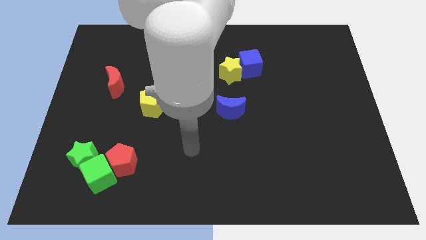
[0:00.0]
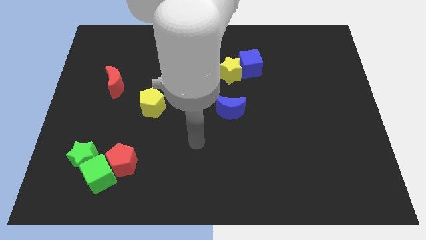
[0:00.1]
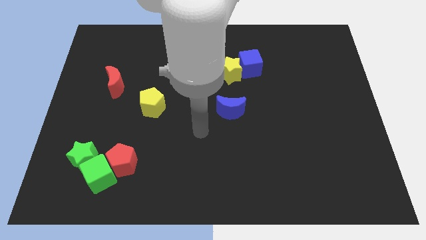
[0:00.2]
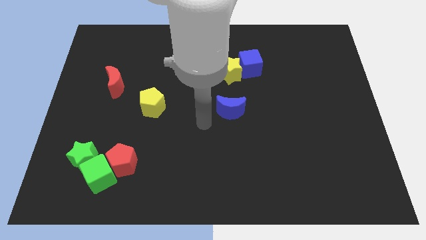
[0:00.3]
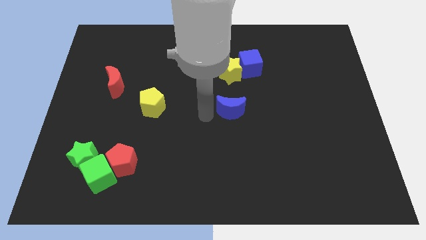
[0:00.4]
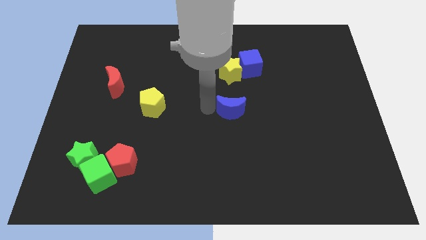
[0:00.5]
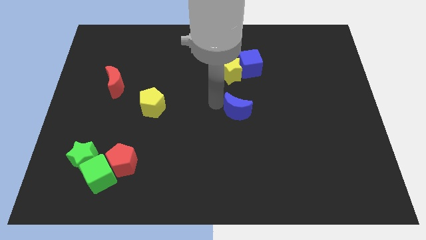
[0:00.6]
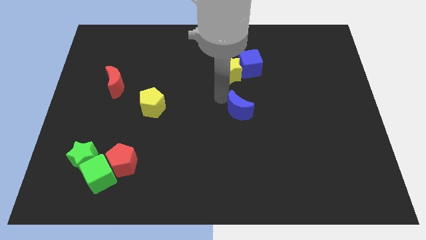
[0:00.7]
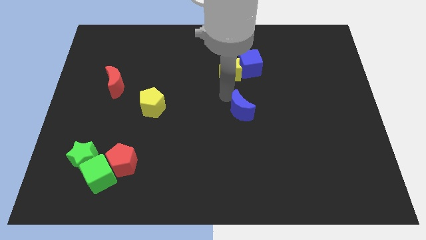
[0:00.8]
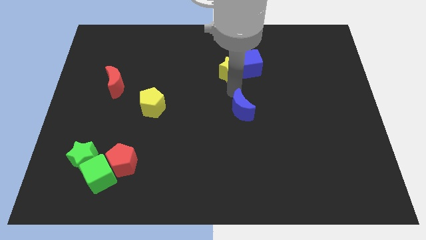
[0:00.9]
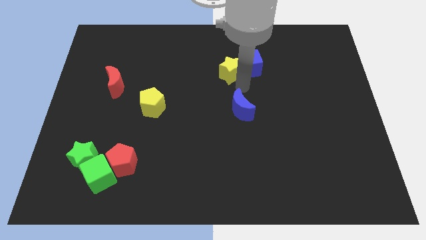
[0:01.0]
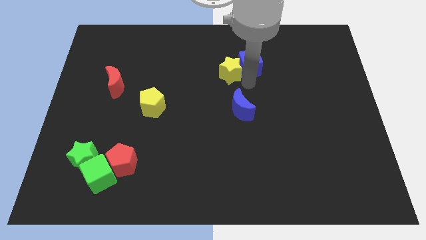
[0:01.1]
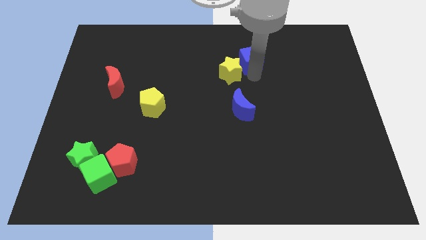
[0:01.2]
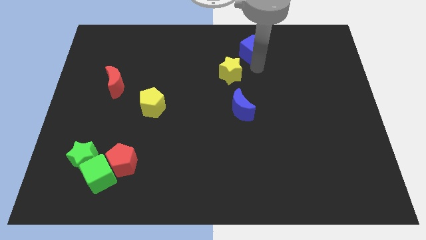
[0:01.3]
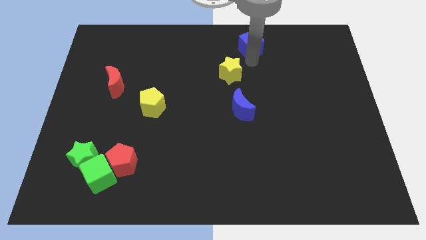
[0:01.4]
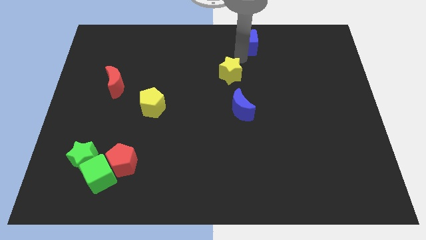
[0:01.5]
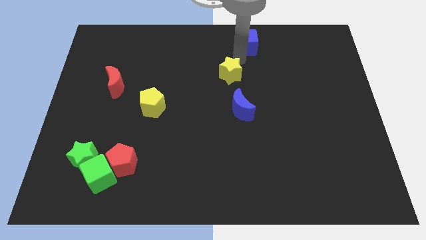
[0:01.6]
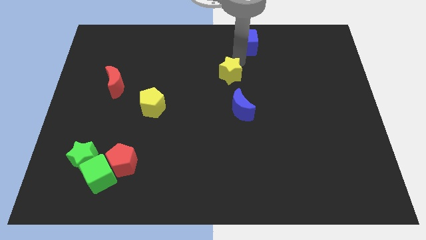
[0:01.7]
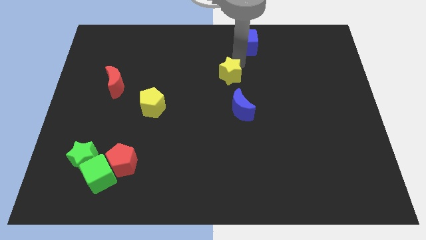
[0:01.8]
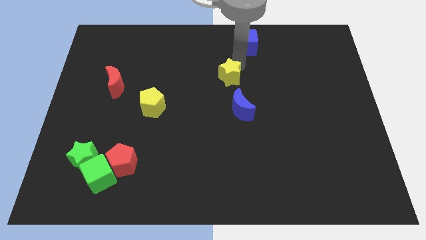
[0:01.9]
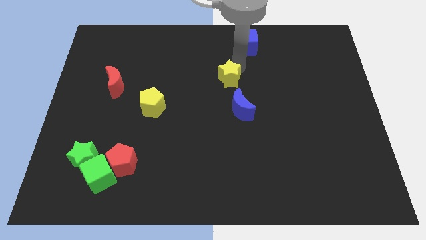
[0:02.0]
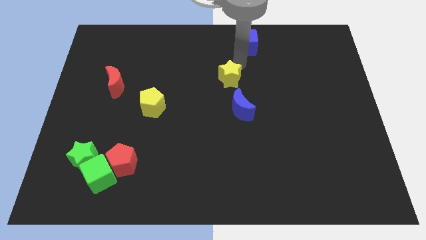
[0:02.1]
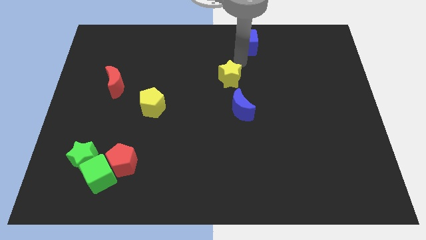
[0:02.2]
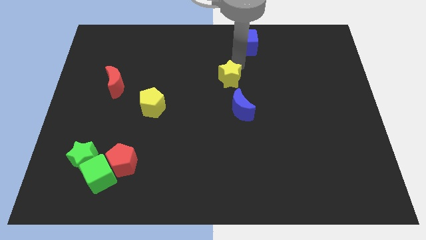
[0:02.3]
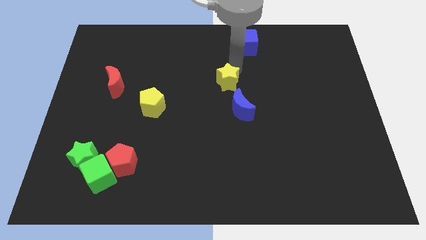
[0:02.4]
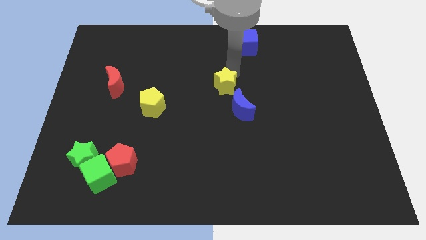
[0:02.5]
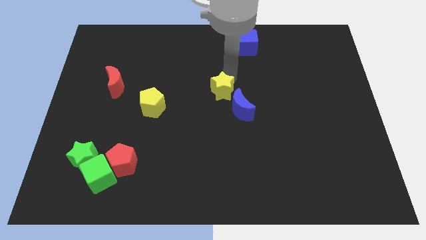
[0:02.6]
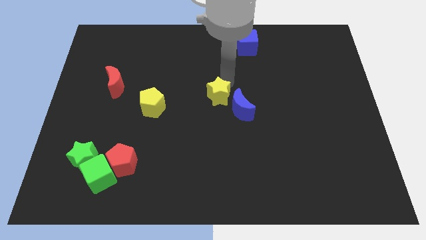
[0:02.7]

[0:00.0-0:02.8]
move the yellow star downwards a little

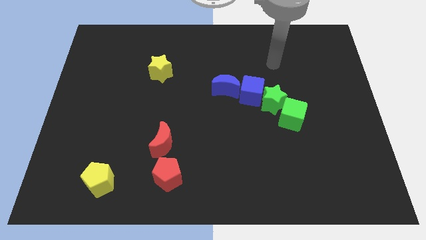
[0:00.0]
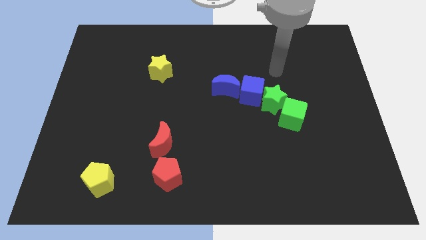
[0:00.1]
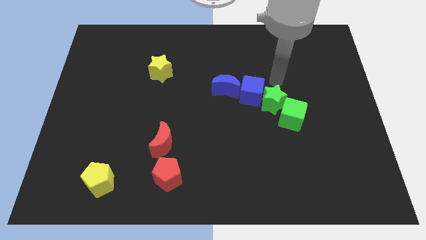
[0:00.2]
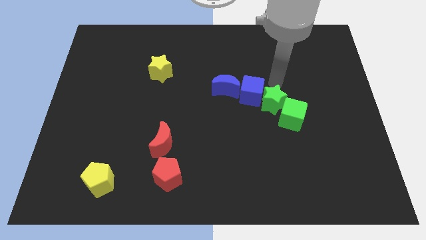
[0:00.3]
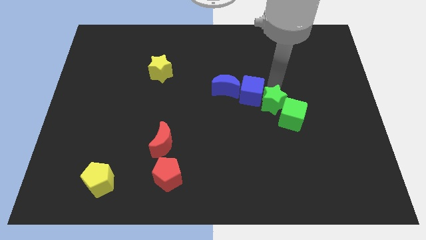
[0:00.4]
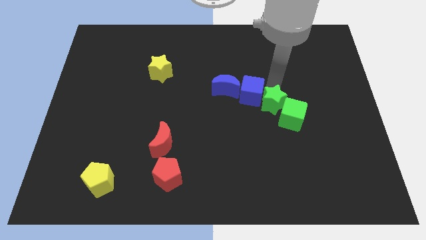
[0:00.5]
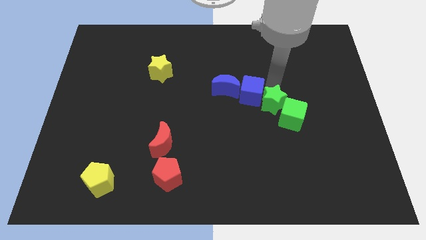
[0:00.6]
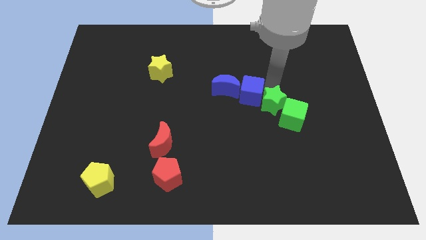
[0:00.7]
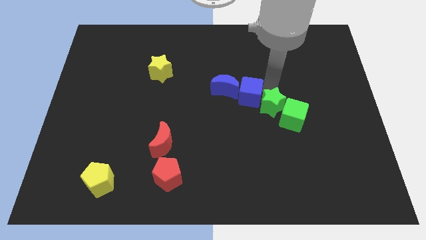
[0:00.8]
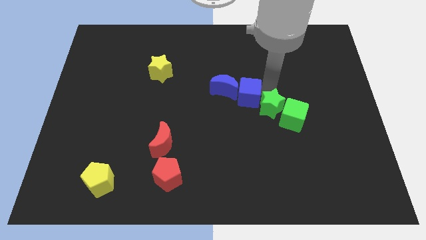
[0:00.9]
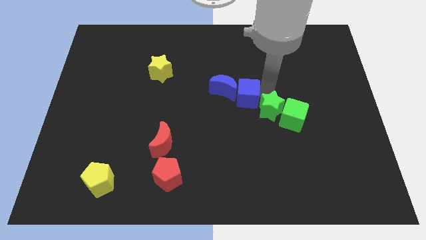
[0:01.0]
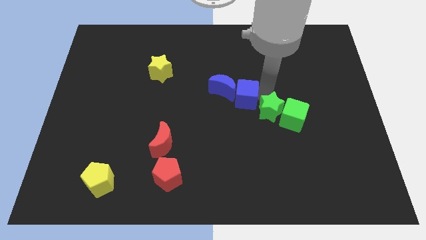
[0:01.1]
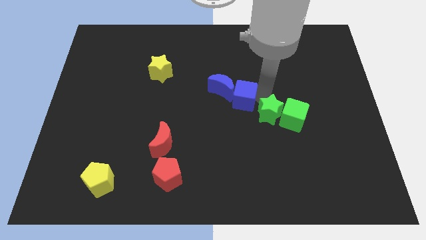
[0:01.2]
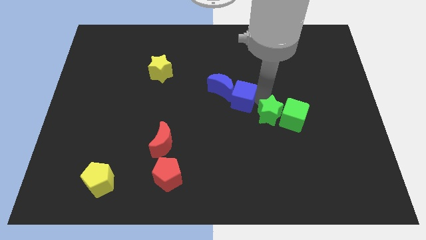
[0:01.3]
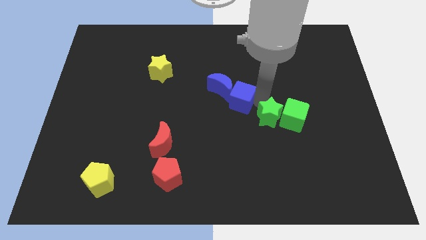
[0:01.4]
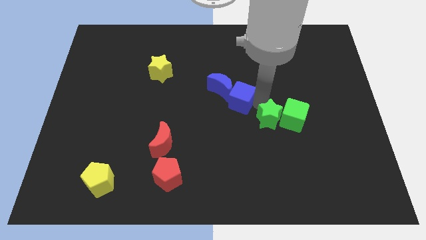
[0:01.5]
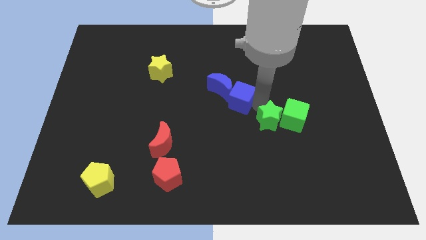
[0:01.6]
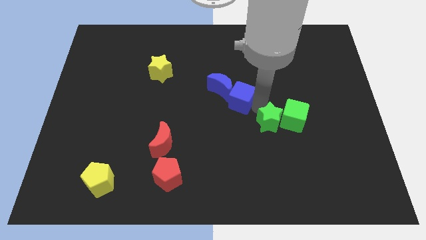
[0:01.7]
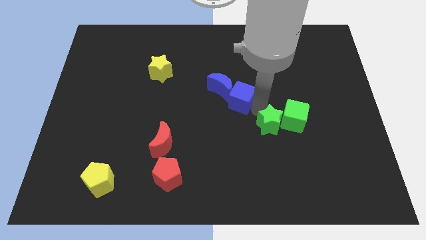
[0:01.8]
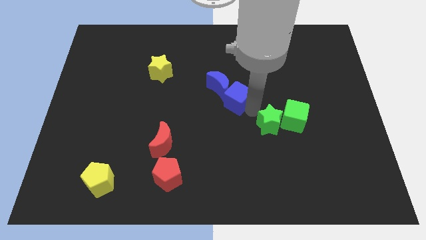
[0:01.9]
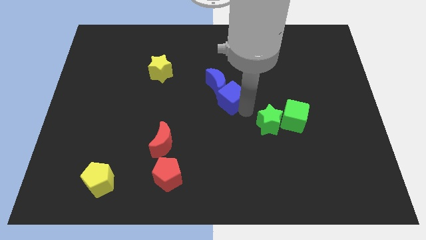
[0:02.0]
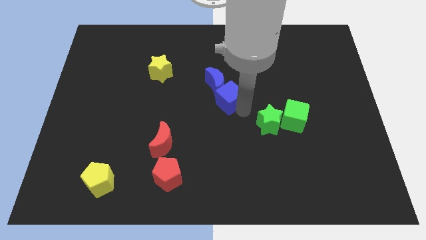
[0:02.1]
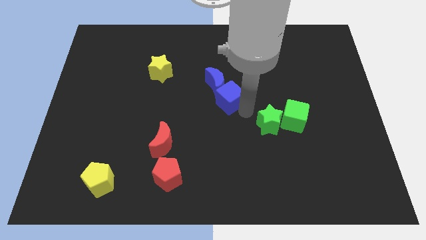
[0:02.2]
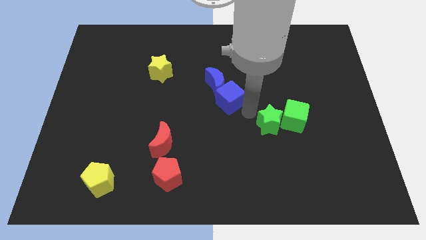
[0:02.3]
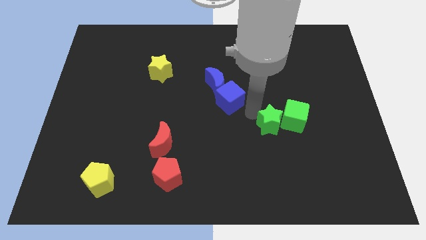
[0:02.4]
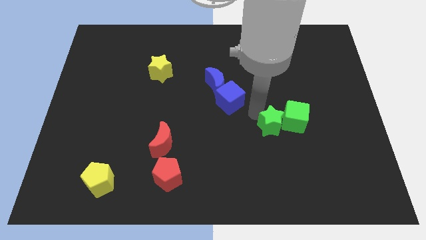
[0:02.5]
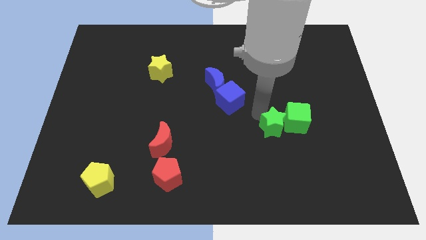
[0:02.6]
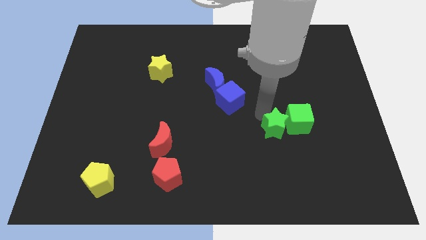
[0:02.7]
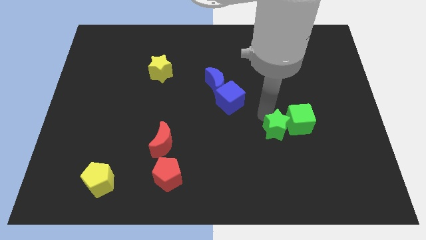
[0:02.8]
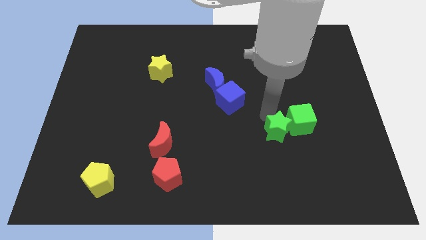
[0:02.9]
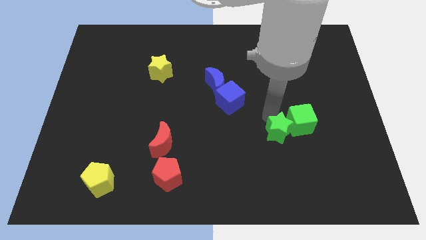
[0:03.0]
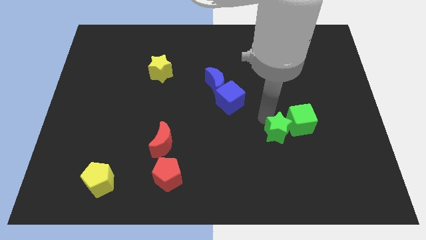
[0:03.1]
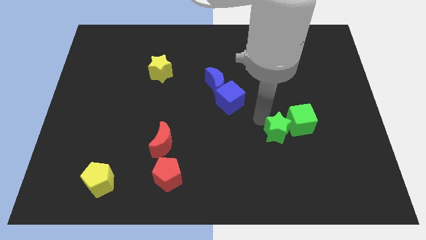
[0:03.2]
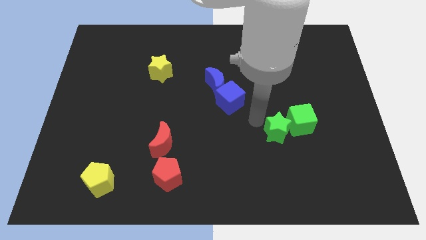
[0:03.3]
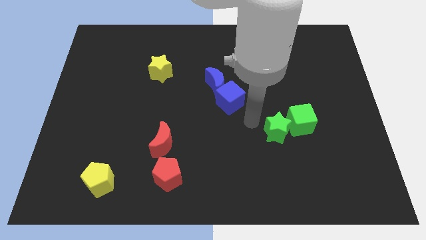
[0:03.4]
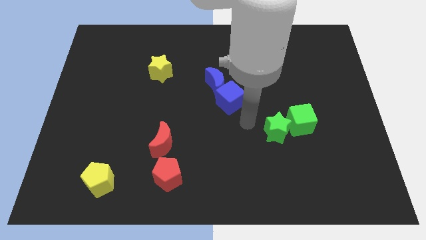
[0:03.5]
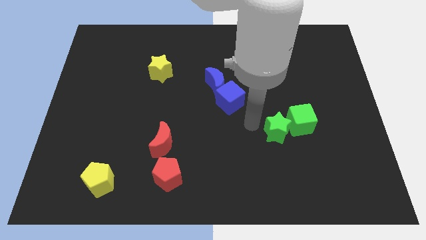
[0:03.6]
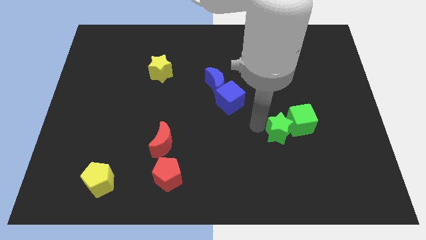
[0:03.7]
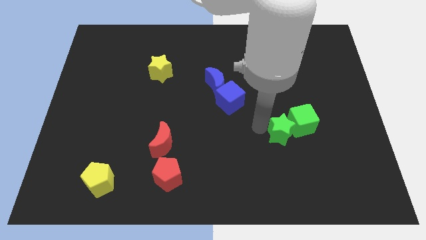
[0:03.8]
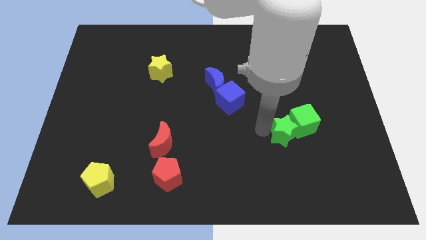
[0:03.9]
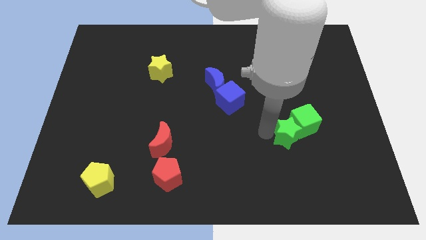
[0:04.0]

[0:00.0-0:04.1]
slightly push the green star downwards and right diagonally

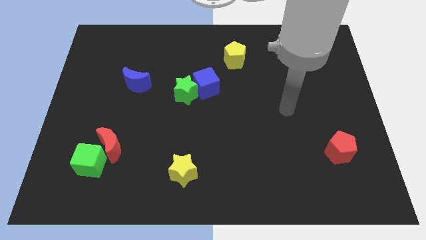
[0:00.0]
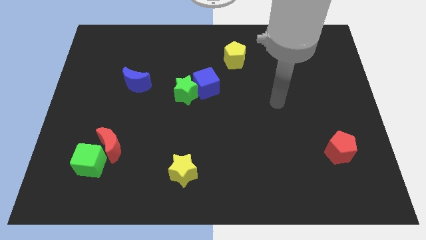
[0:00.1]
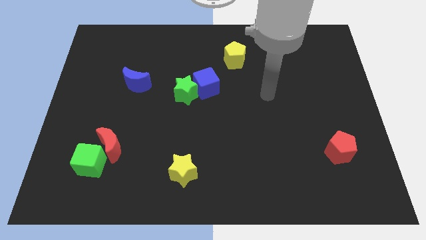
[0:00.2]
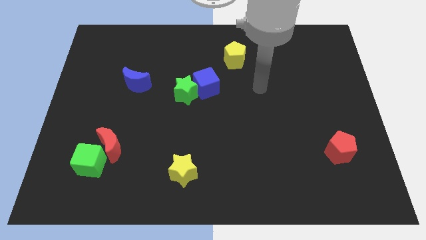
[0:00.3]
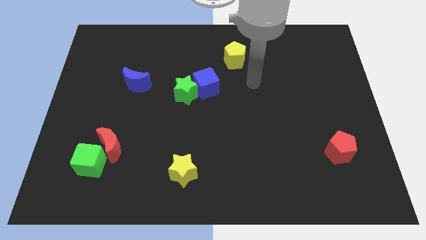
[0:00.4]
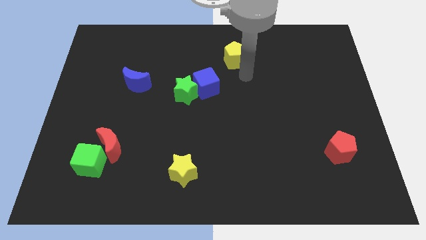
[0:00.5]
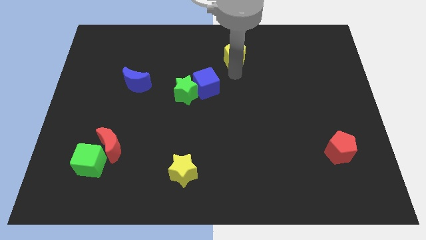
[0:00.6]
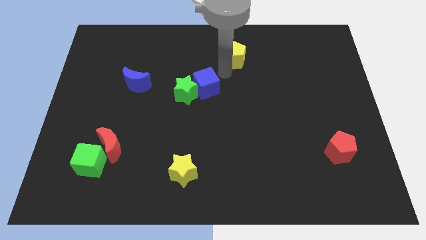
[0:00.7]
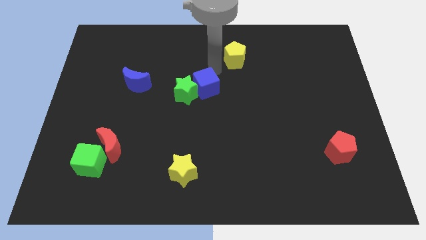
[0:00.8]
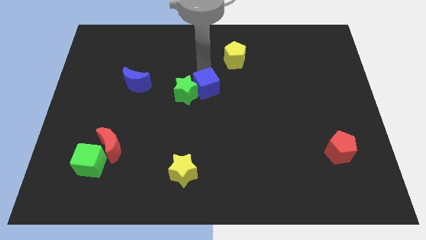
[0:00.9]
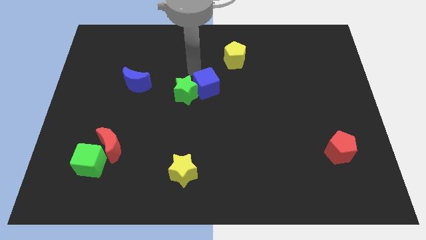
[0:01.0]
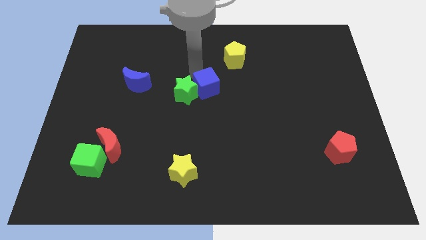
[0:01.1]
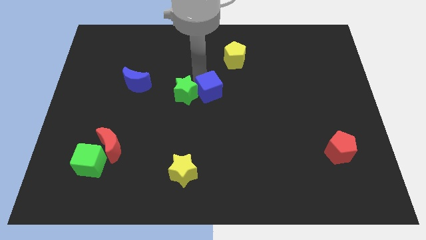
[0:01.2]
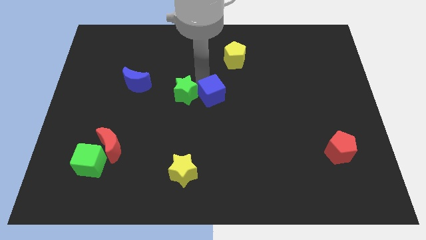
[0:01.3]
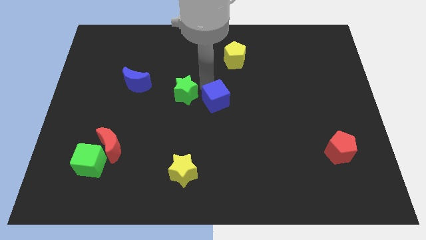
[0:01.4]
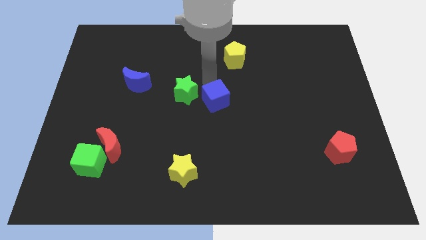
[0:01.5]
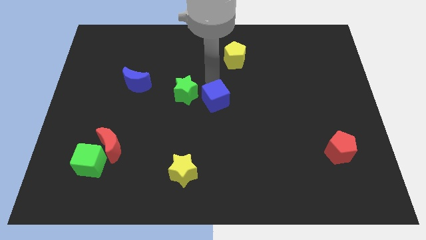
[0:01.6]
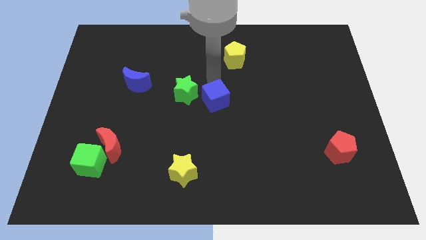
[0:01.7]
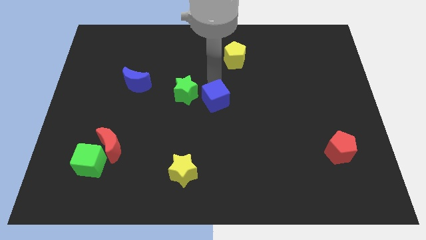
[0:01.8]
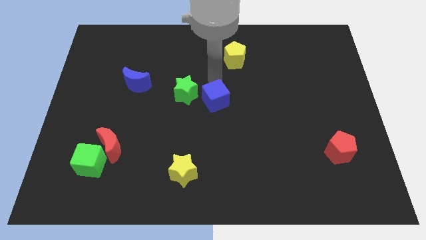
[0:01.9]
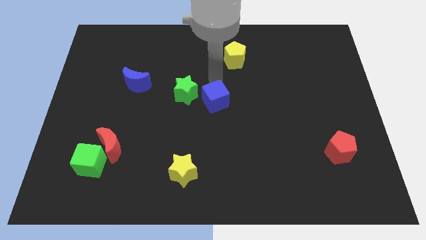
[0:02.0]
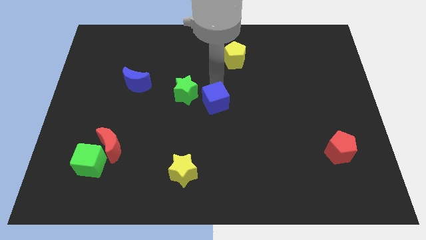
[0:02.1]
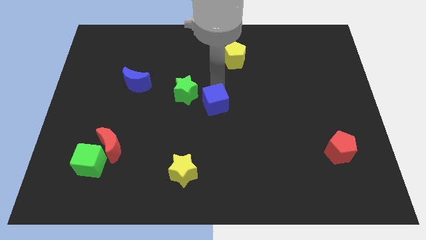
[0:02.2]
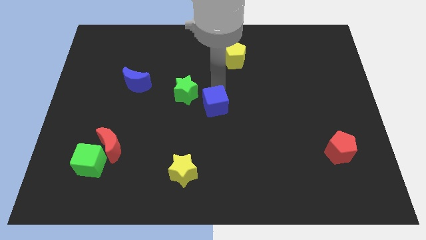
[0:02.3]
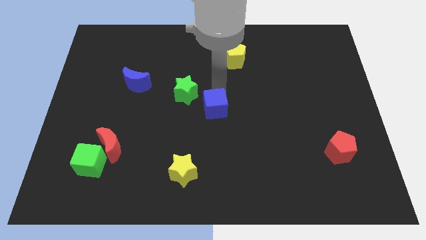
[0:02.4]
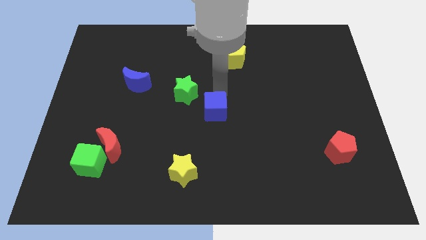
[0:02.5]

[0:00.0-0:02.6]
push the blue cube a little downwards
